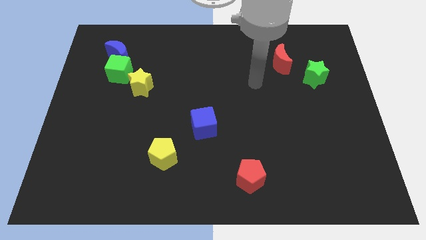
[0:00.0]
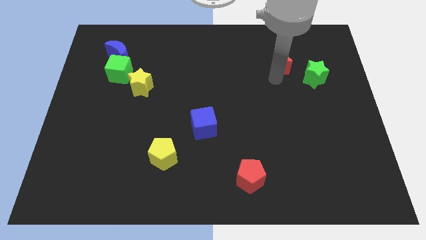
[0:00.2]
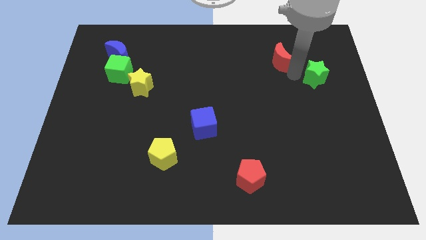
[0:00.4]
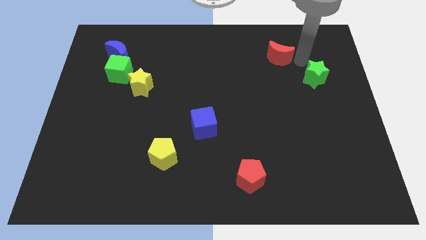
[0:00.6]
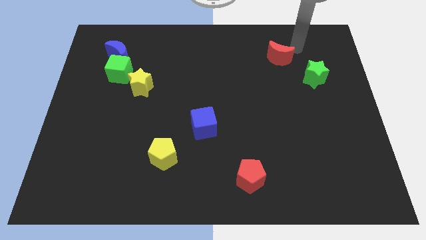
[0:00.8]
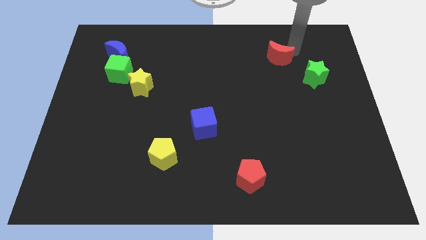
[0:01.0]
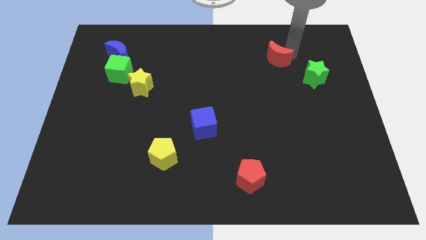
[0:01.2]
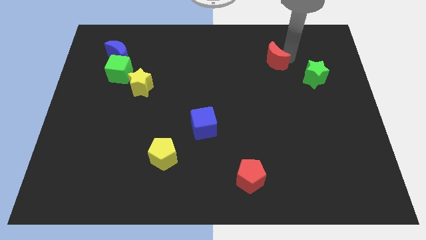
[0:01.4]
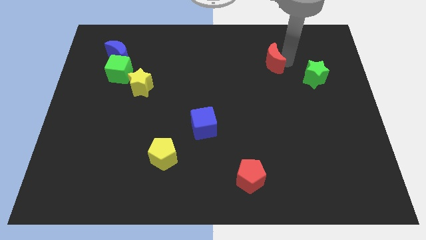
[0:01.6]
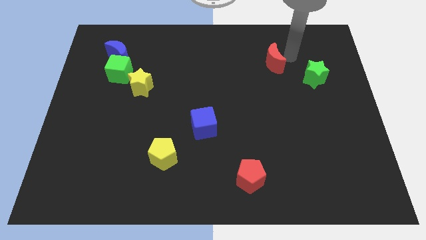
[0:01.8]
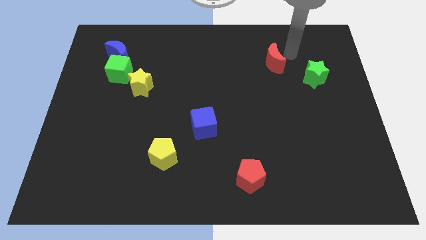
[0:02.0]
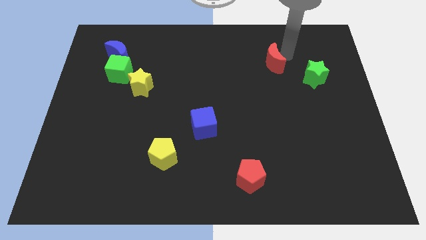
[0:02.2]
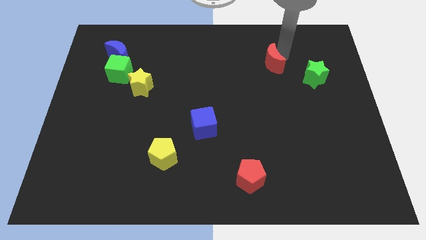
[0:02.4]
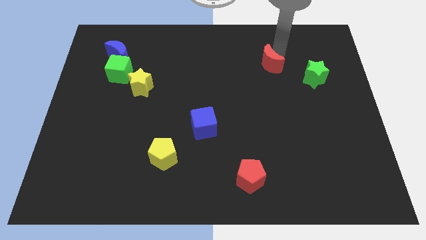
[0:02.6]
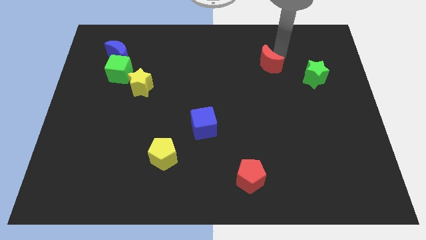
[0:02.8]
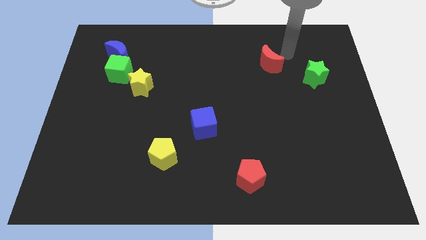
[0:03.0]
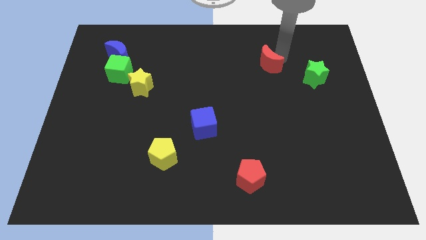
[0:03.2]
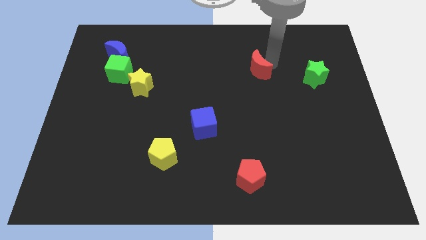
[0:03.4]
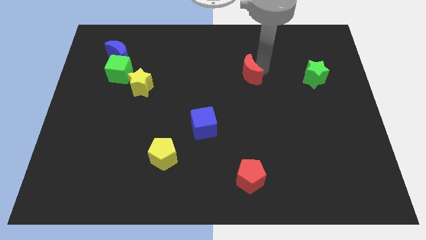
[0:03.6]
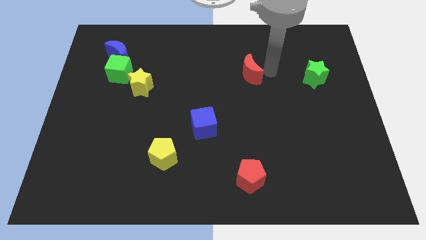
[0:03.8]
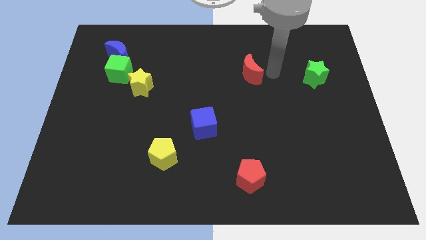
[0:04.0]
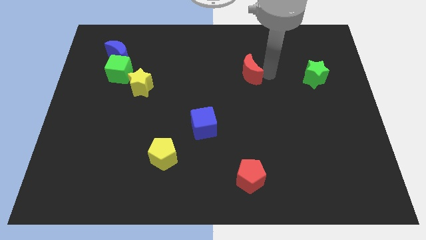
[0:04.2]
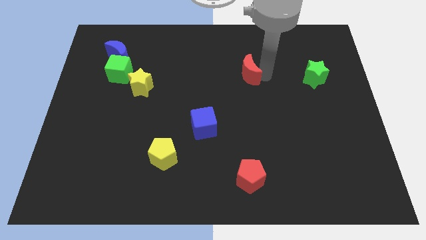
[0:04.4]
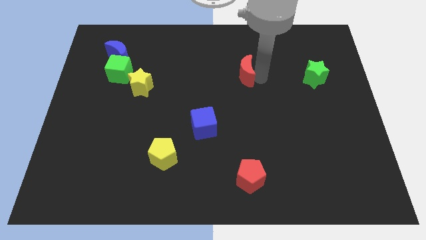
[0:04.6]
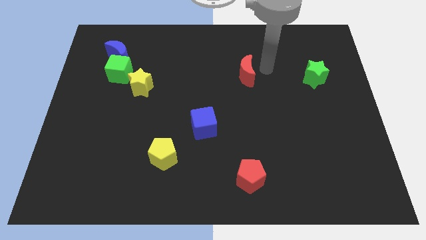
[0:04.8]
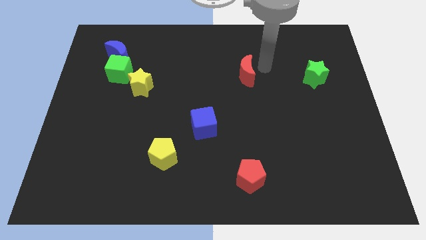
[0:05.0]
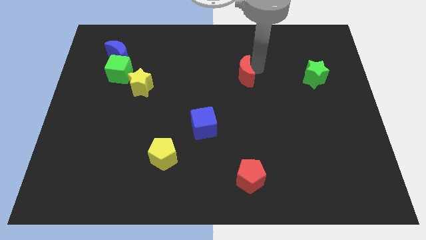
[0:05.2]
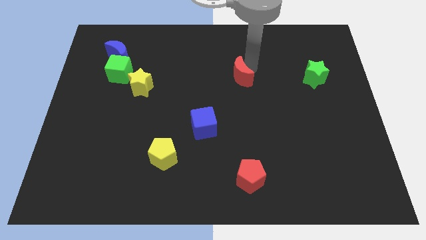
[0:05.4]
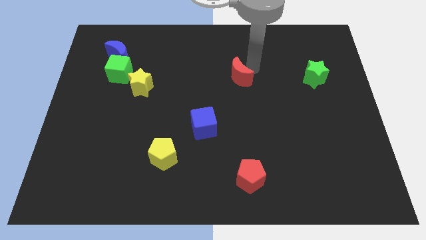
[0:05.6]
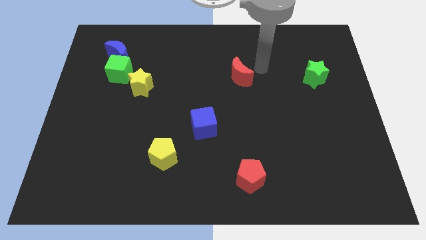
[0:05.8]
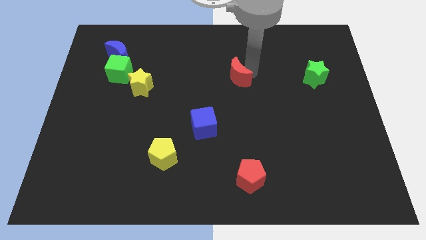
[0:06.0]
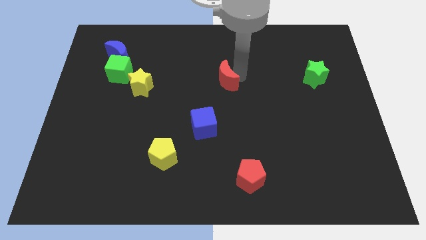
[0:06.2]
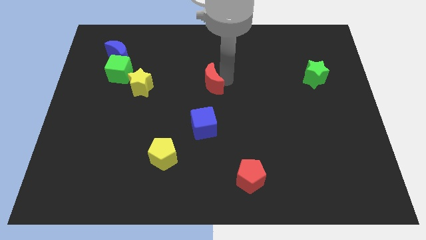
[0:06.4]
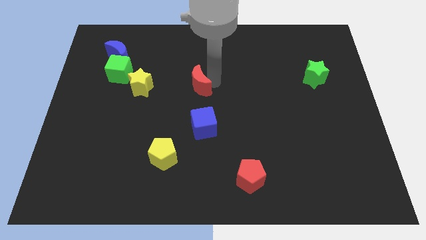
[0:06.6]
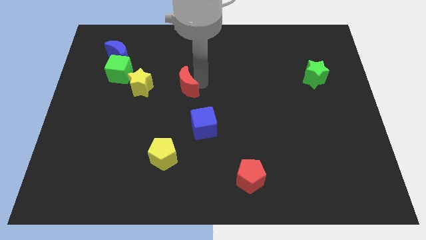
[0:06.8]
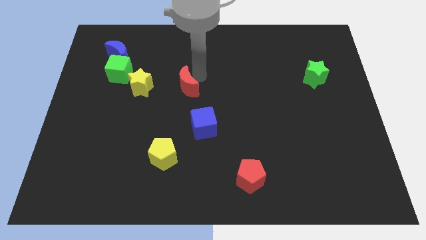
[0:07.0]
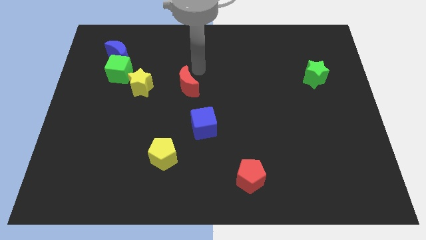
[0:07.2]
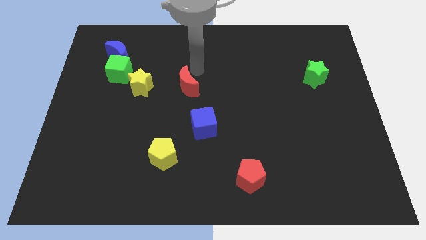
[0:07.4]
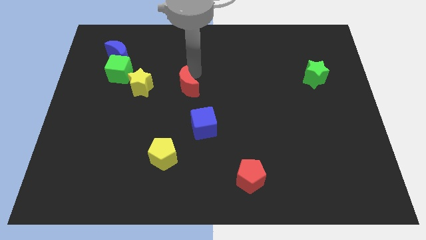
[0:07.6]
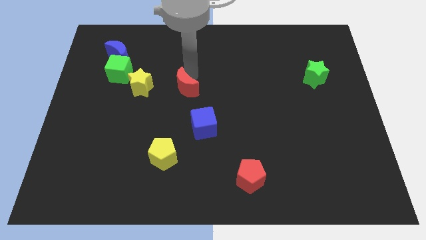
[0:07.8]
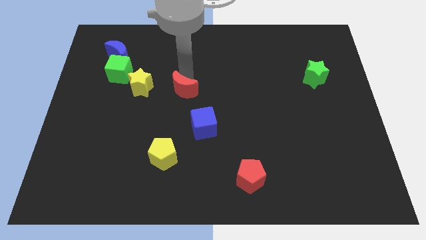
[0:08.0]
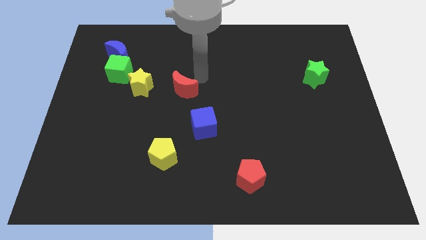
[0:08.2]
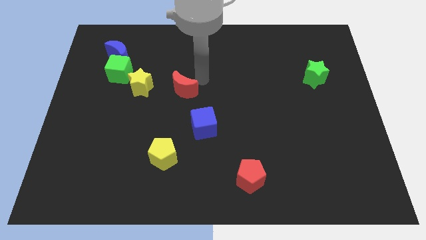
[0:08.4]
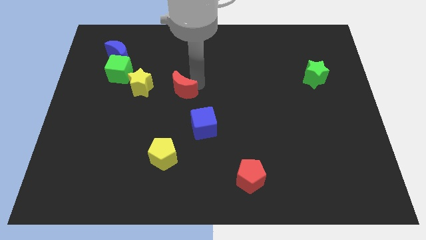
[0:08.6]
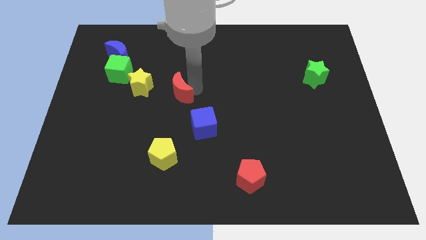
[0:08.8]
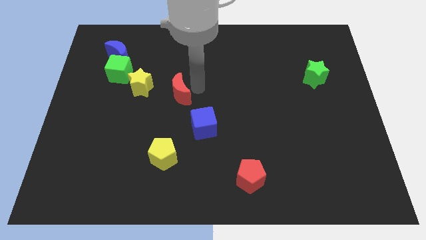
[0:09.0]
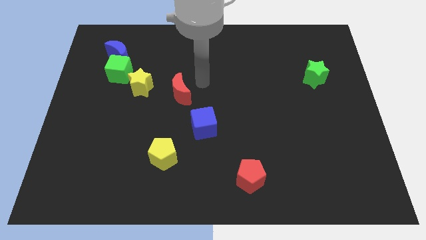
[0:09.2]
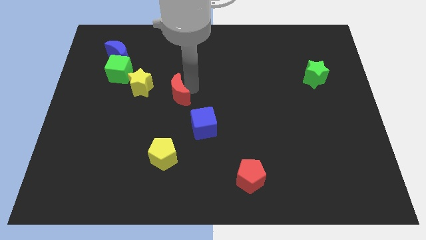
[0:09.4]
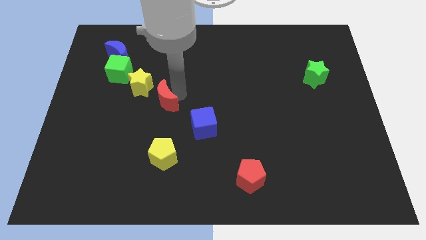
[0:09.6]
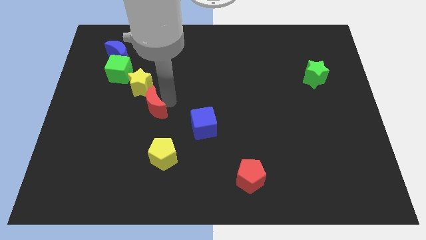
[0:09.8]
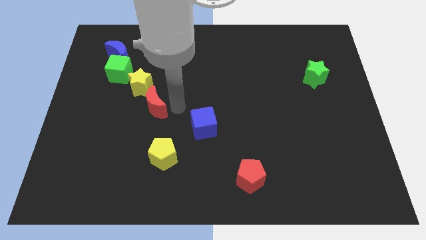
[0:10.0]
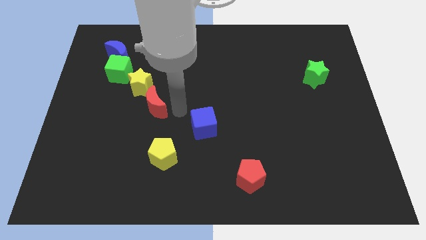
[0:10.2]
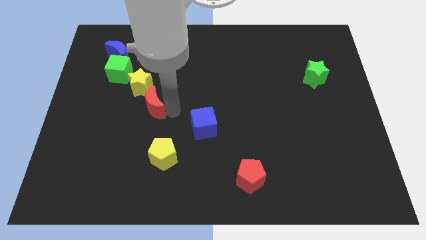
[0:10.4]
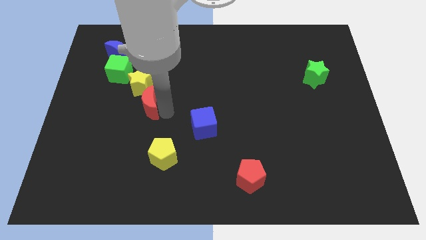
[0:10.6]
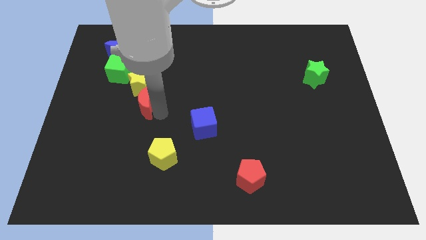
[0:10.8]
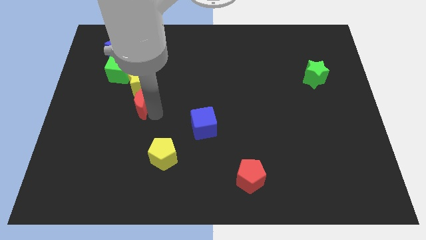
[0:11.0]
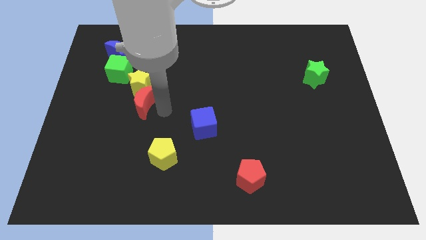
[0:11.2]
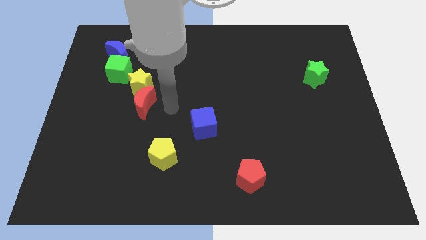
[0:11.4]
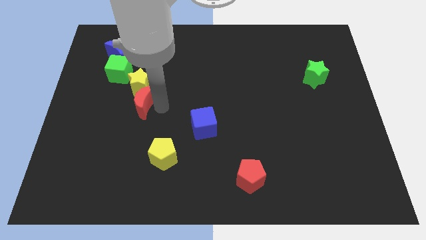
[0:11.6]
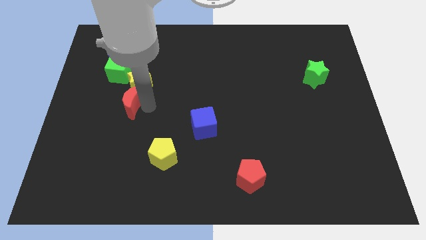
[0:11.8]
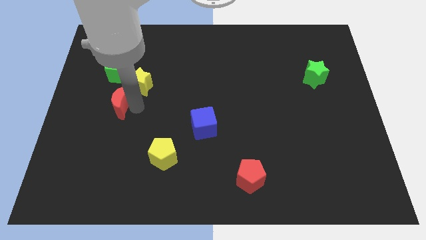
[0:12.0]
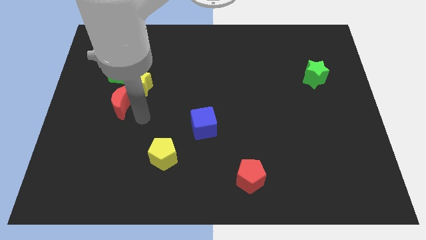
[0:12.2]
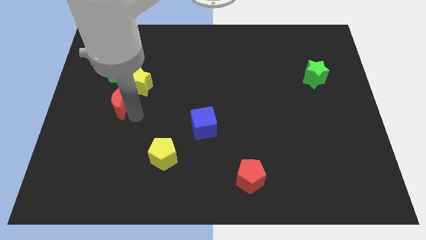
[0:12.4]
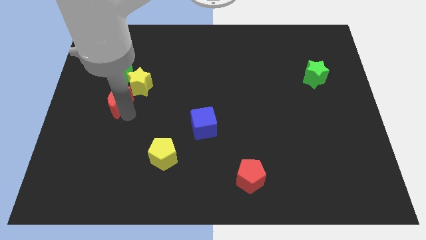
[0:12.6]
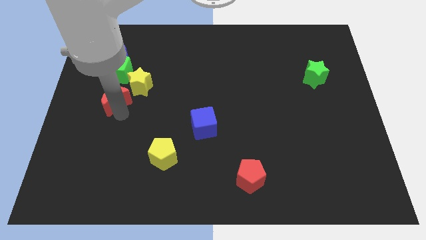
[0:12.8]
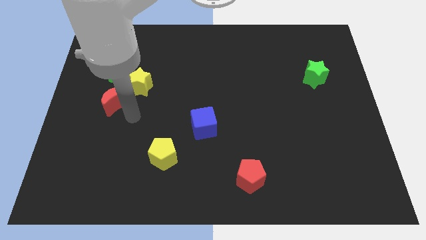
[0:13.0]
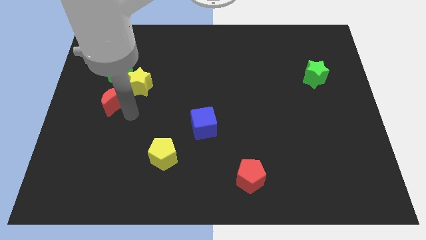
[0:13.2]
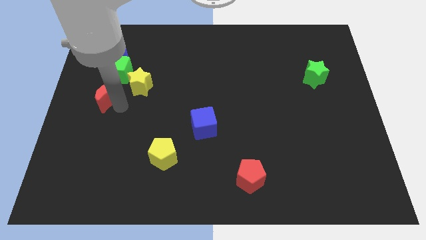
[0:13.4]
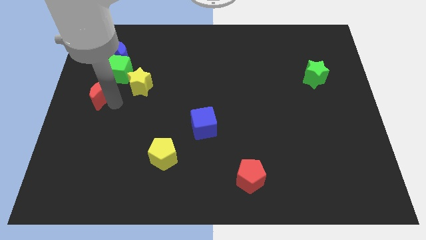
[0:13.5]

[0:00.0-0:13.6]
push the red moon diagonally down and to the left of the green cube

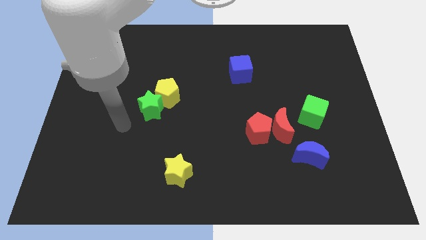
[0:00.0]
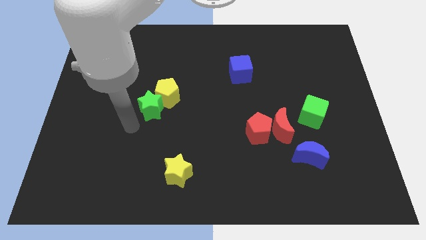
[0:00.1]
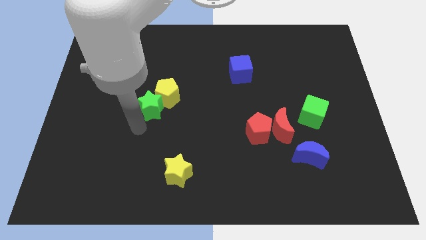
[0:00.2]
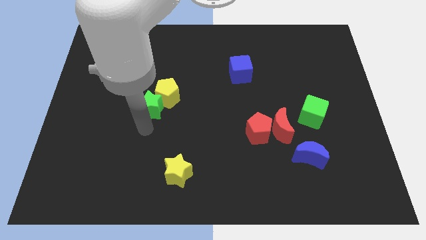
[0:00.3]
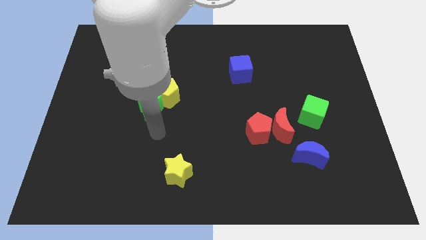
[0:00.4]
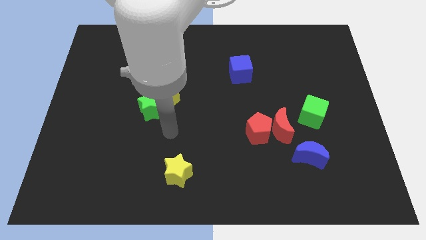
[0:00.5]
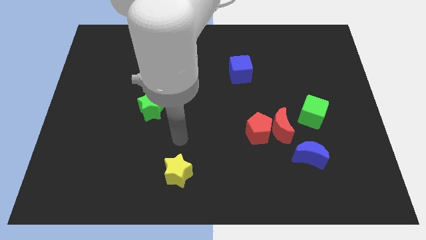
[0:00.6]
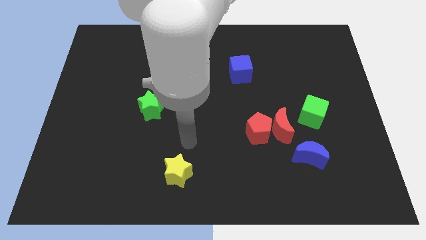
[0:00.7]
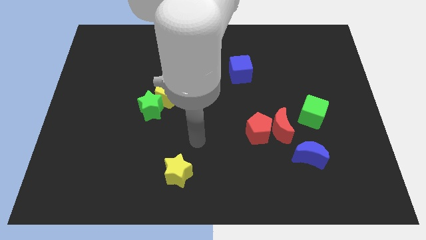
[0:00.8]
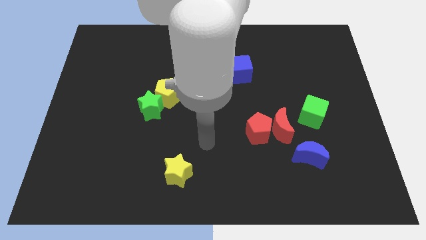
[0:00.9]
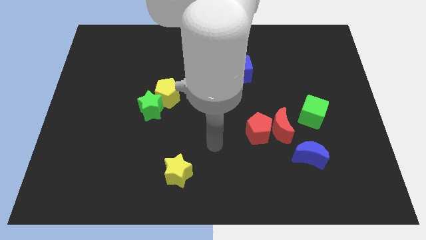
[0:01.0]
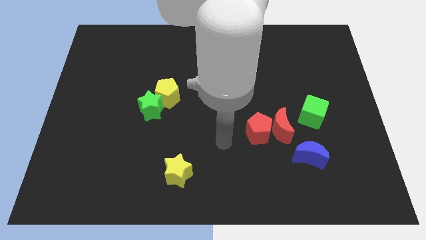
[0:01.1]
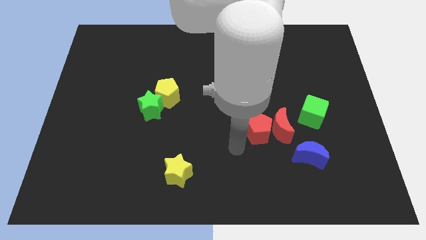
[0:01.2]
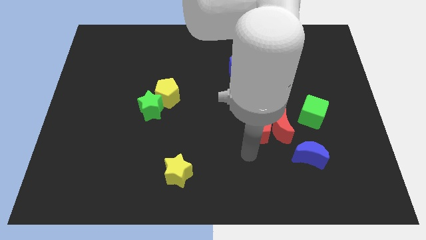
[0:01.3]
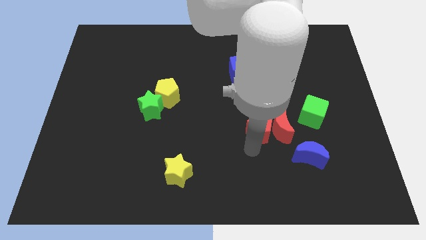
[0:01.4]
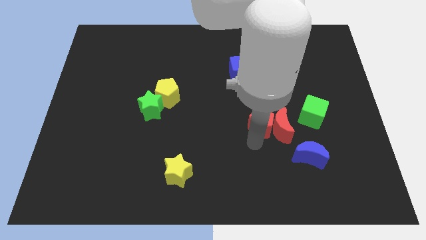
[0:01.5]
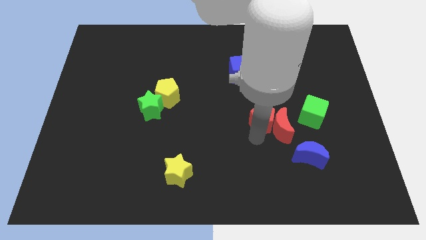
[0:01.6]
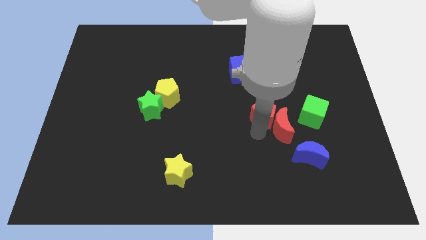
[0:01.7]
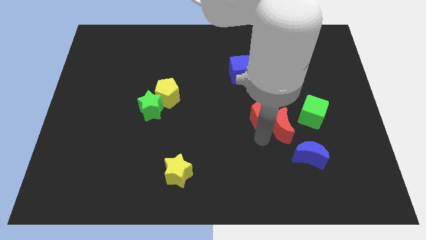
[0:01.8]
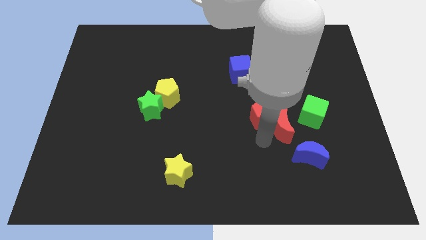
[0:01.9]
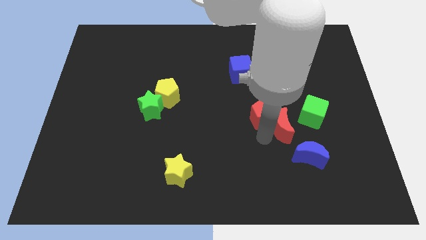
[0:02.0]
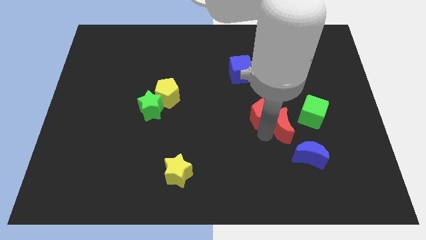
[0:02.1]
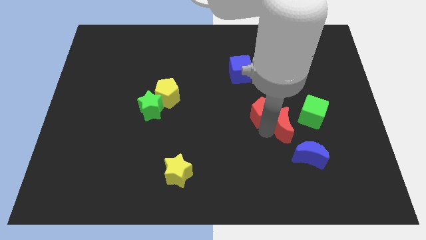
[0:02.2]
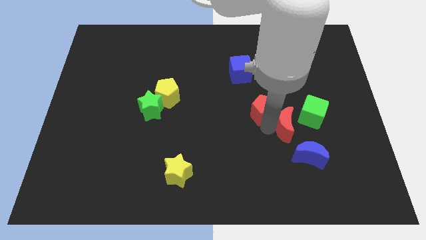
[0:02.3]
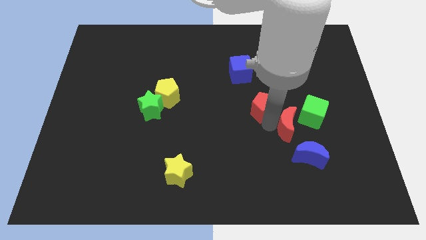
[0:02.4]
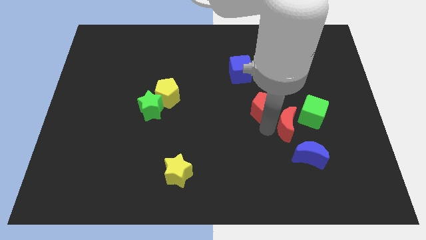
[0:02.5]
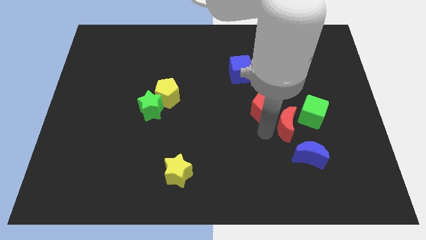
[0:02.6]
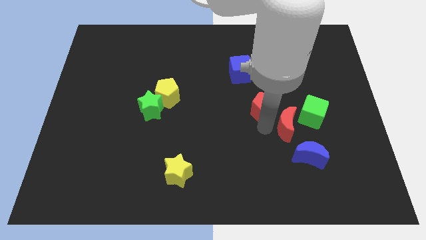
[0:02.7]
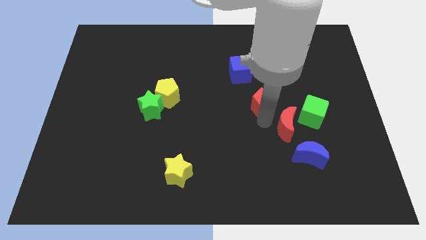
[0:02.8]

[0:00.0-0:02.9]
move the red pentagon to the bottom right side of the blue cube
